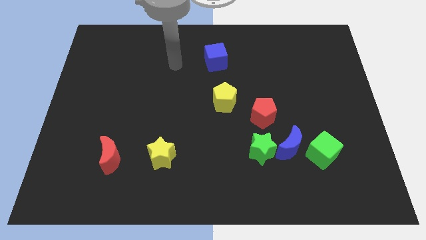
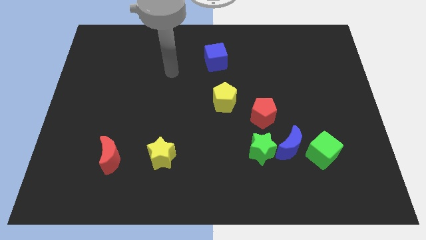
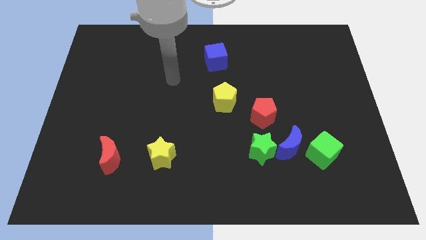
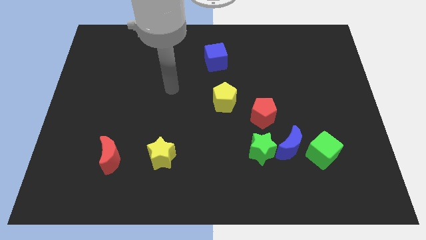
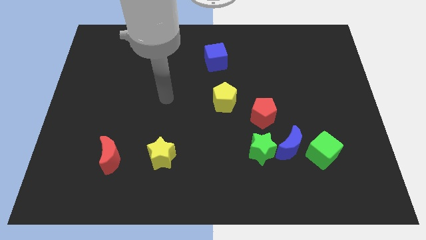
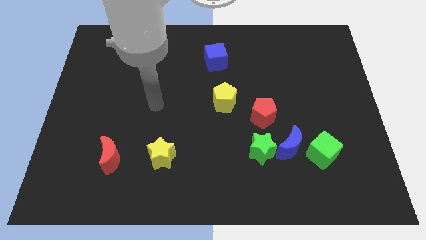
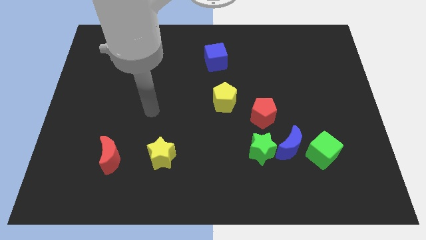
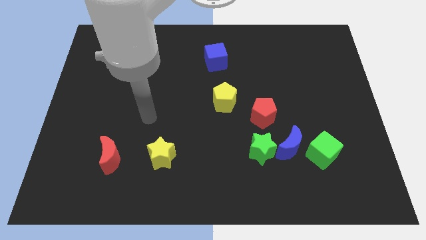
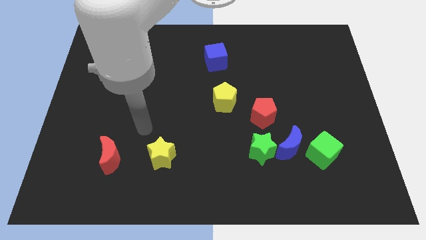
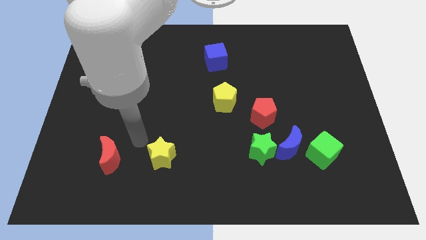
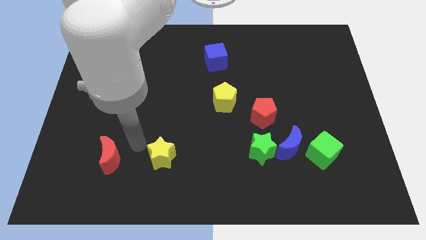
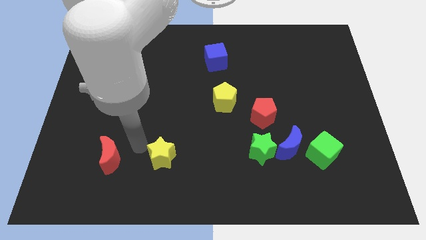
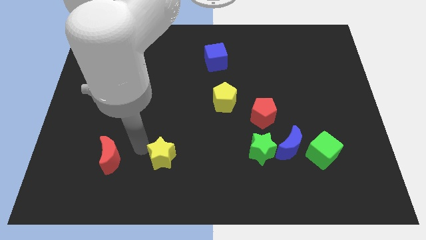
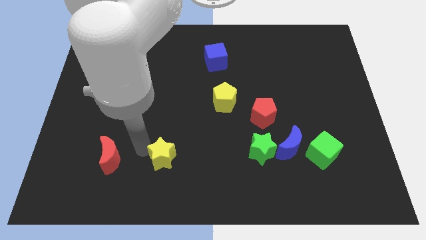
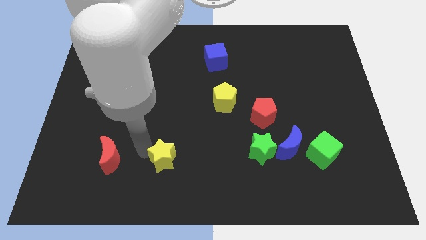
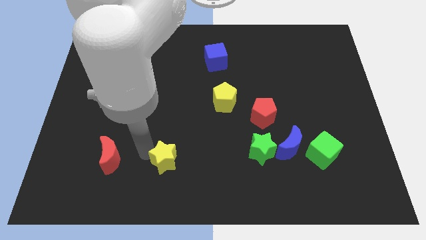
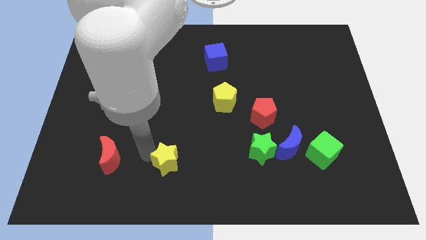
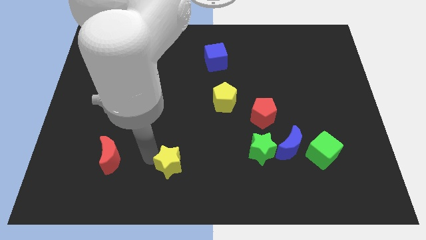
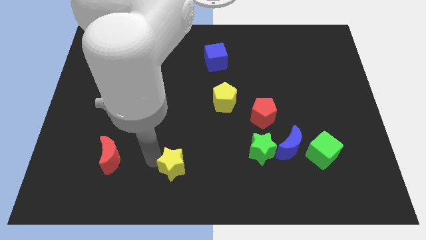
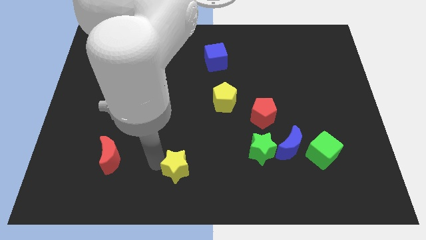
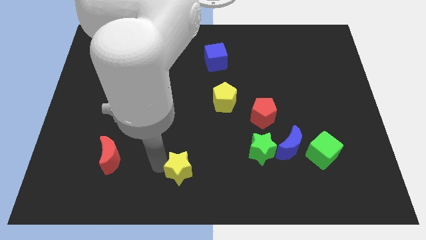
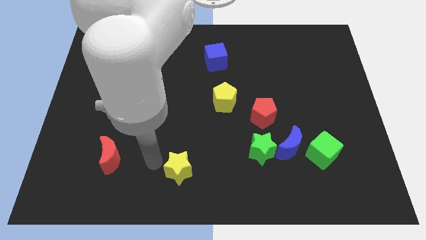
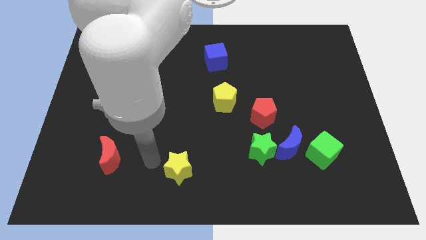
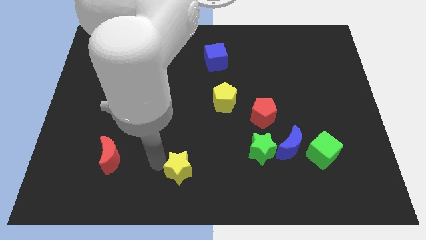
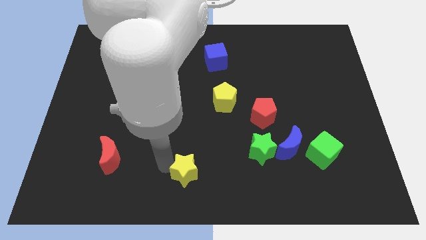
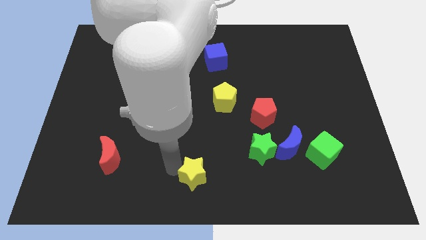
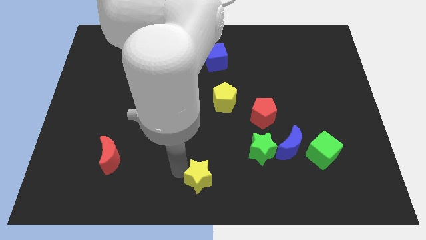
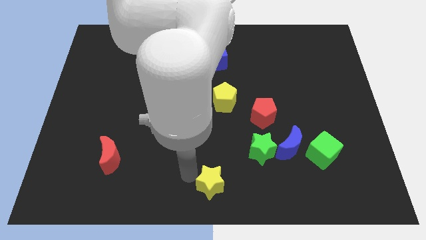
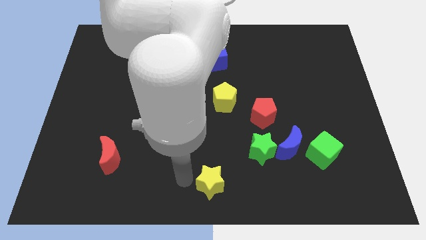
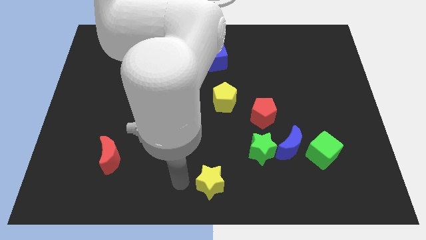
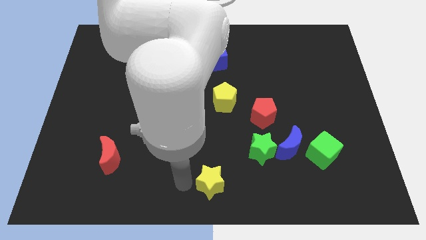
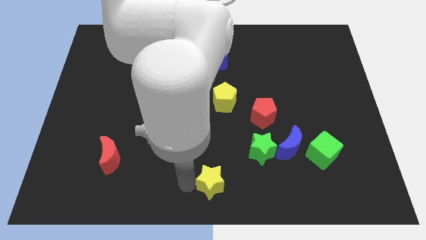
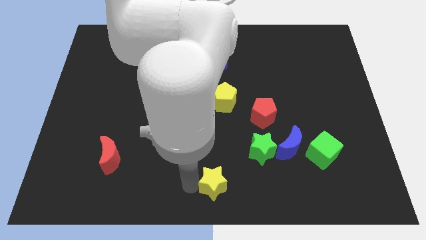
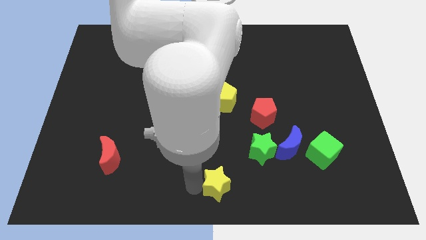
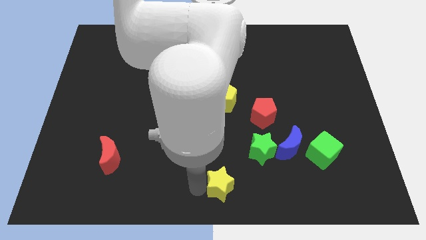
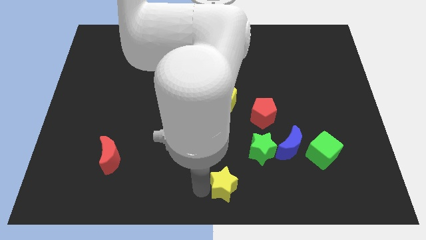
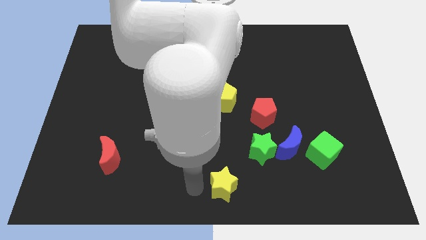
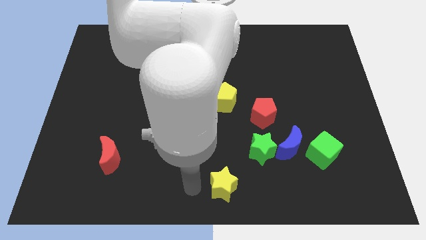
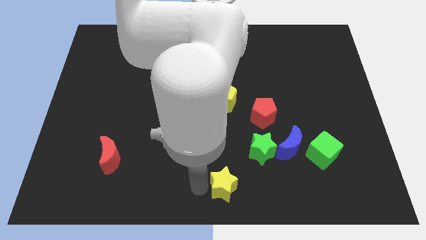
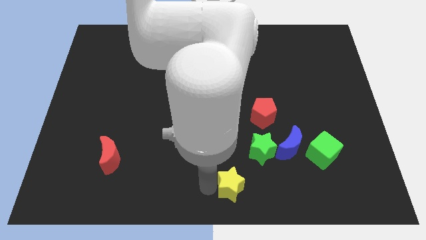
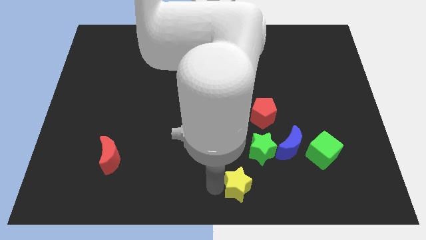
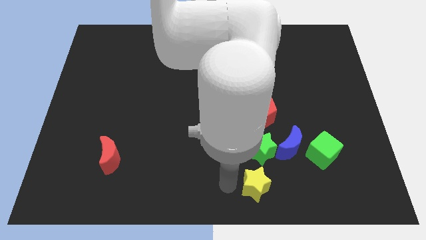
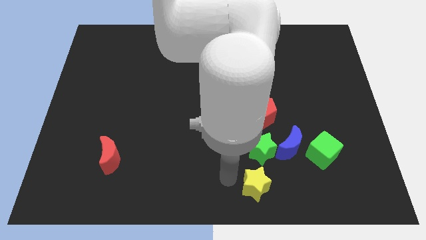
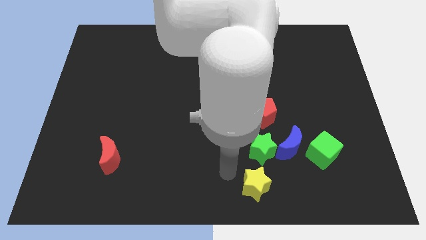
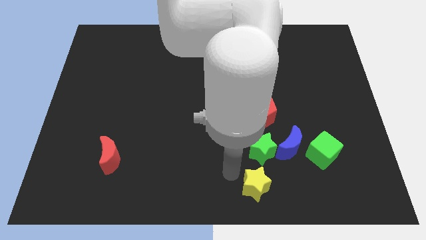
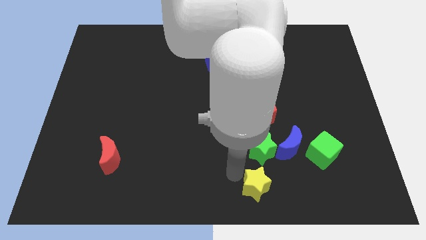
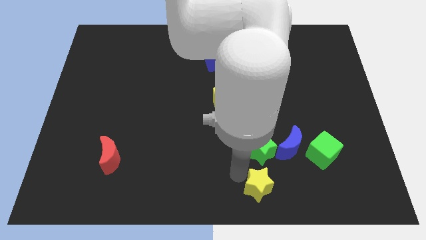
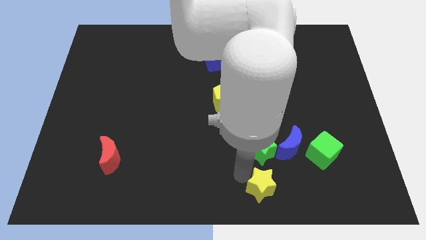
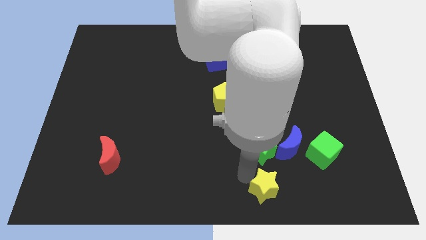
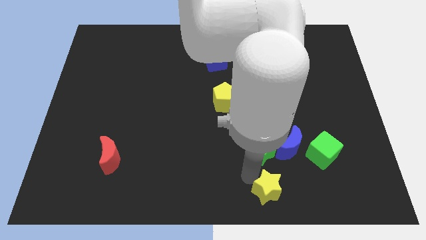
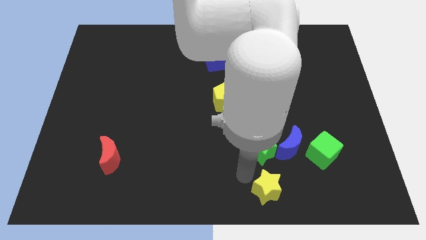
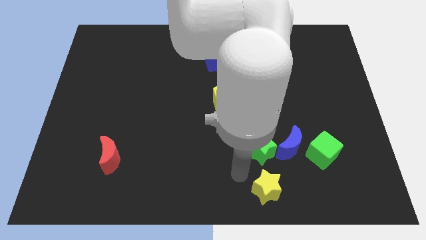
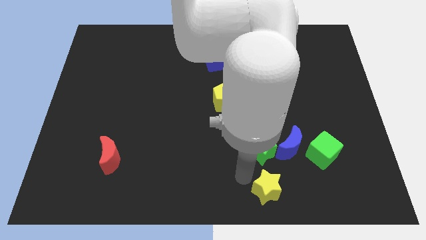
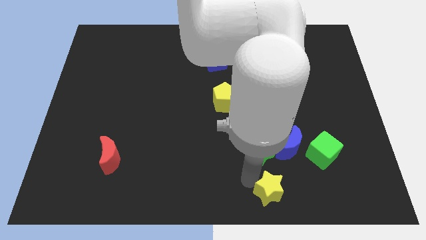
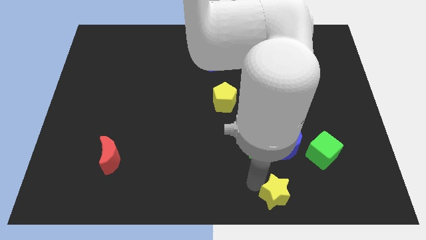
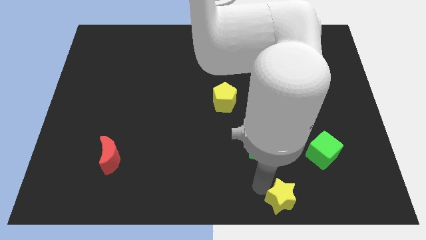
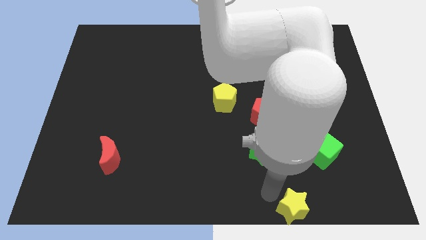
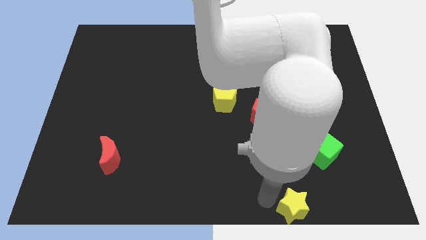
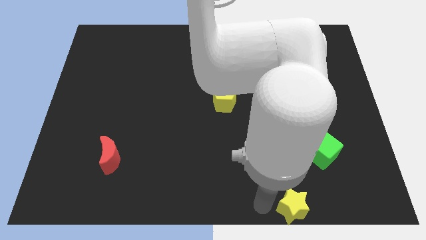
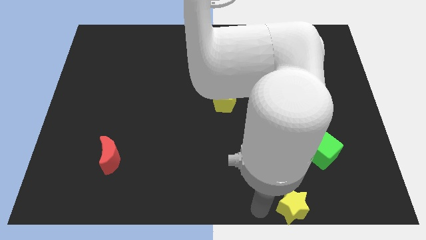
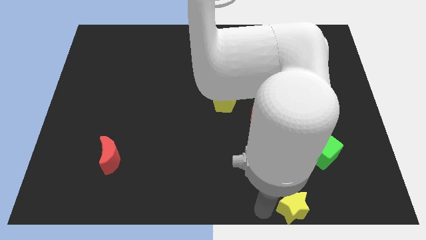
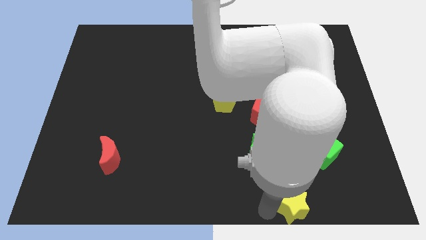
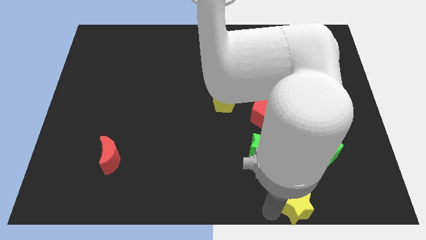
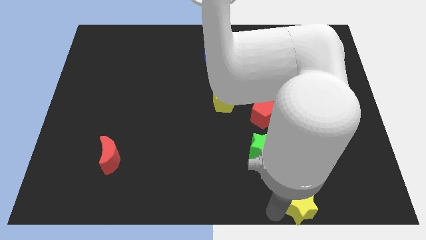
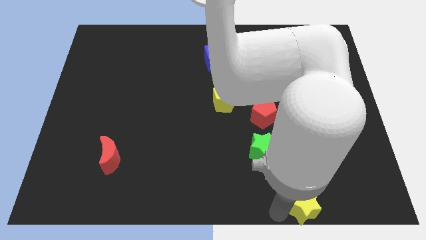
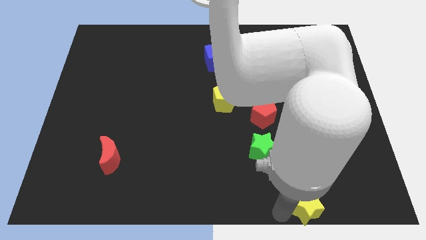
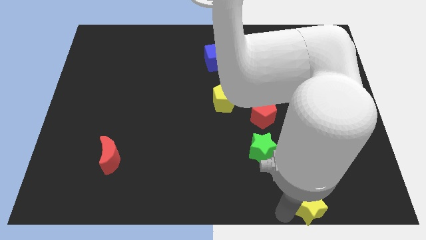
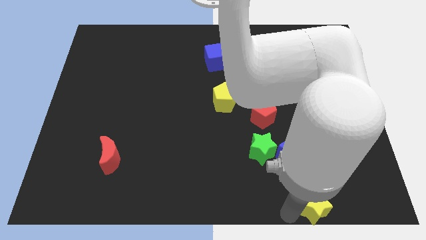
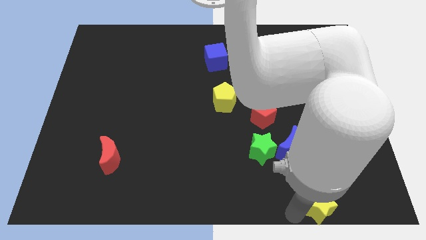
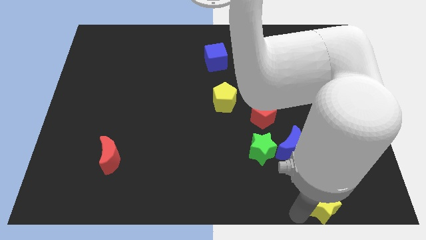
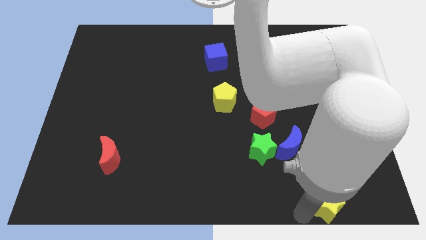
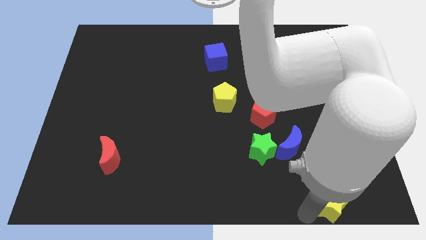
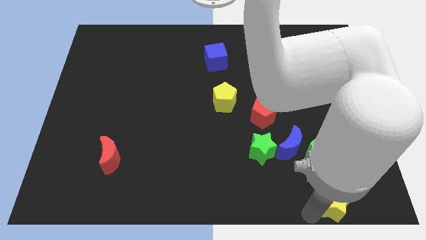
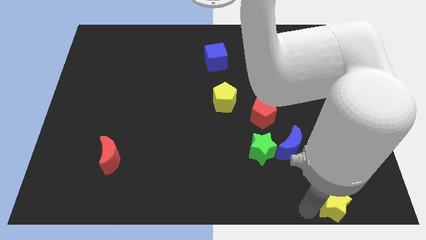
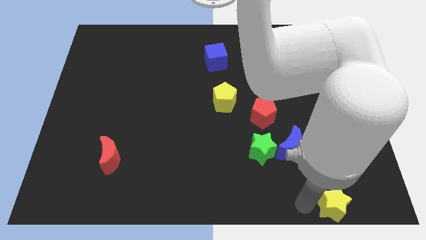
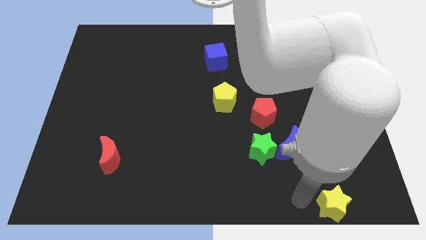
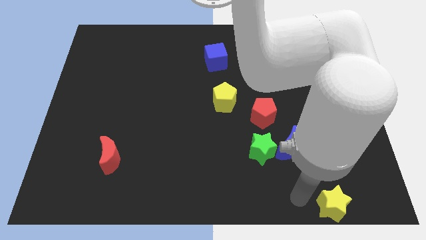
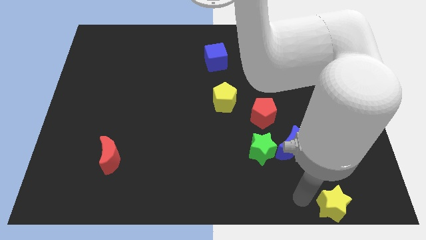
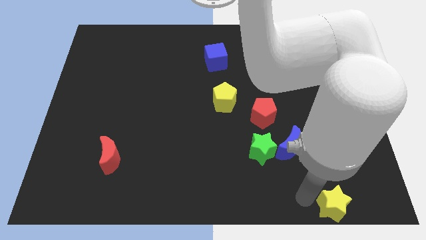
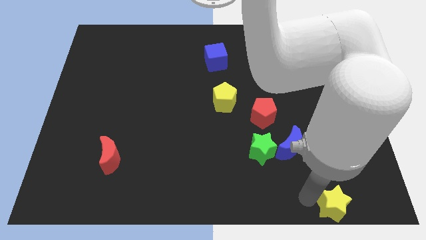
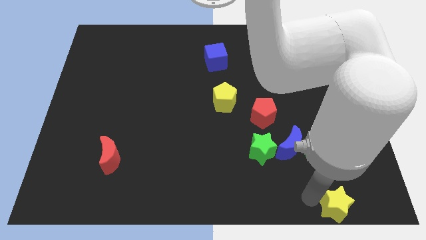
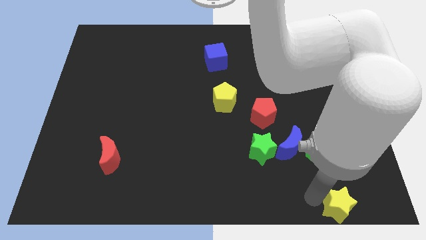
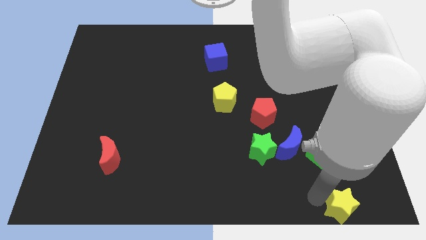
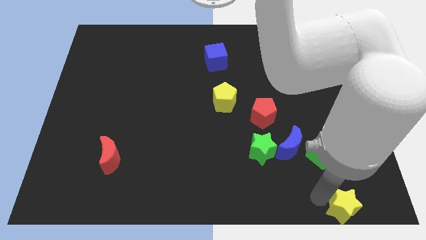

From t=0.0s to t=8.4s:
move the yellow star to the bottom right corner
